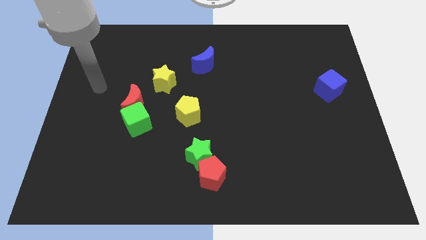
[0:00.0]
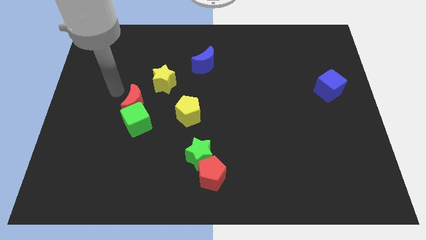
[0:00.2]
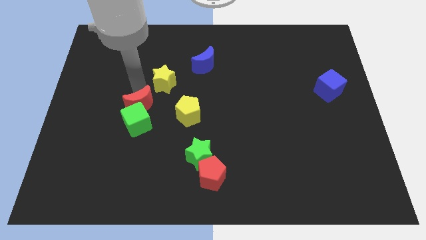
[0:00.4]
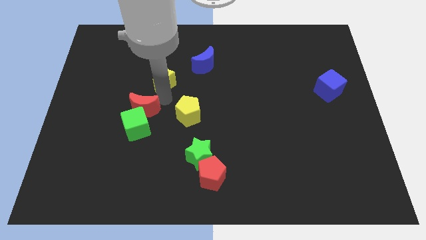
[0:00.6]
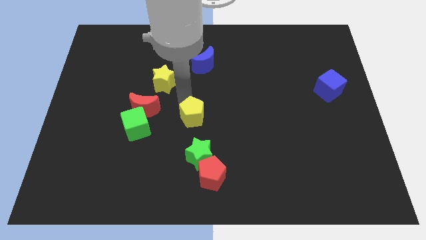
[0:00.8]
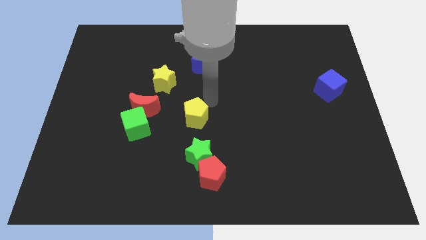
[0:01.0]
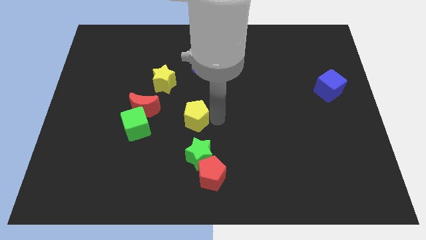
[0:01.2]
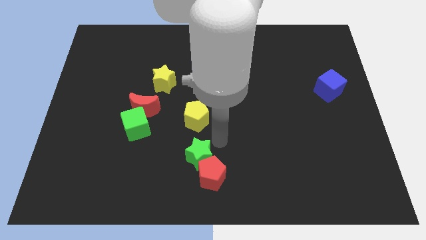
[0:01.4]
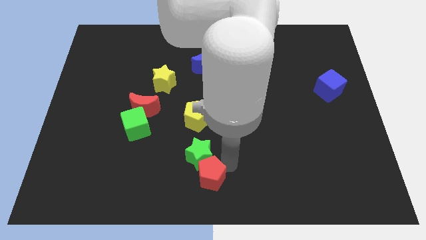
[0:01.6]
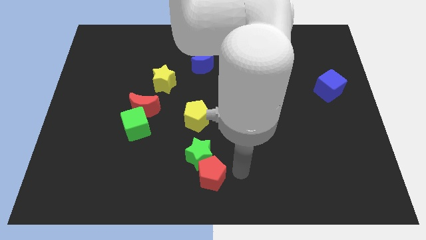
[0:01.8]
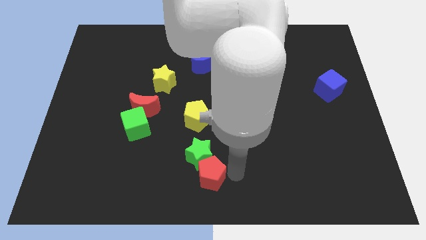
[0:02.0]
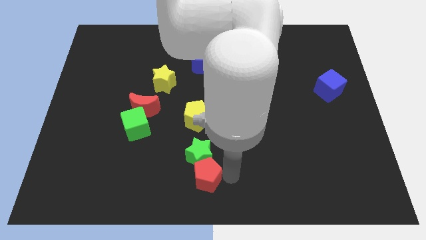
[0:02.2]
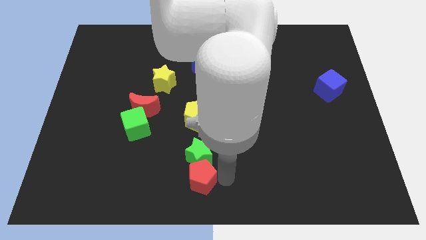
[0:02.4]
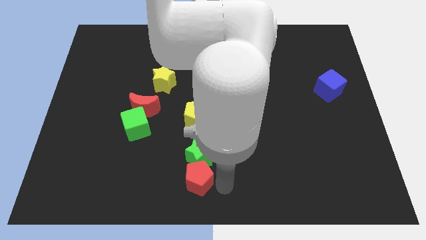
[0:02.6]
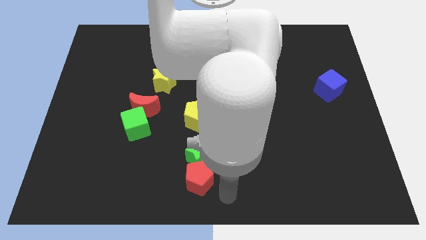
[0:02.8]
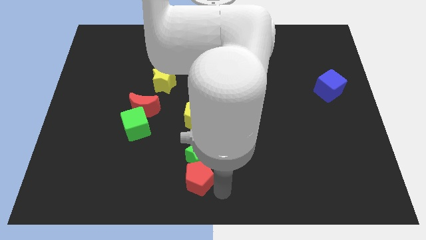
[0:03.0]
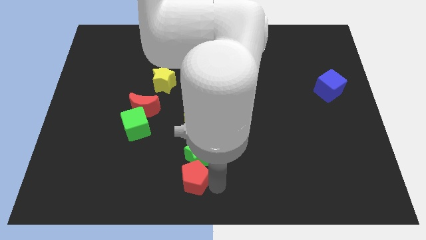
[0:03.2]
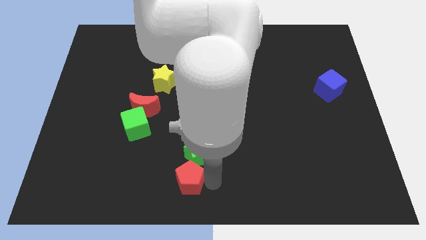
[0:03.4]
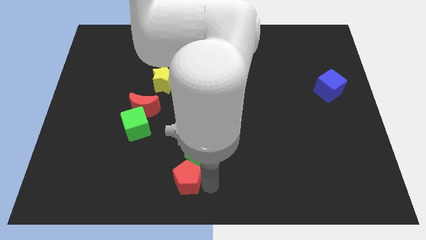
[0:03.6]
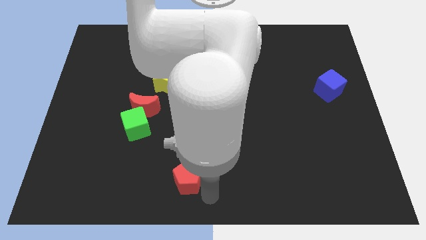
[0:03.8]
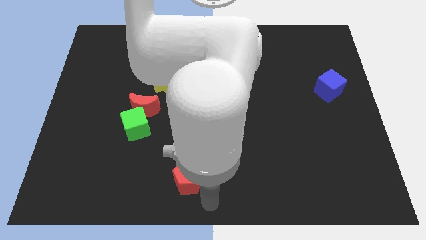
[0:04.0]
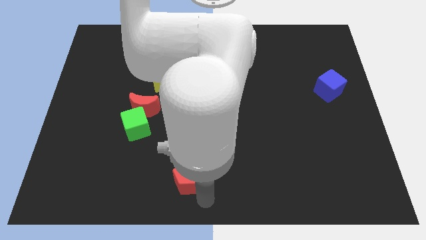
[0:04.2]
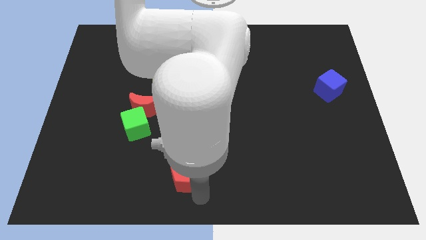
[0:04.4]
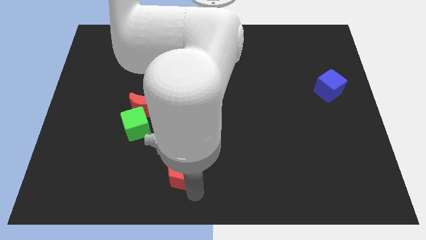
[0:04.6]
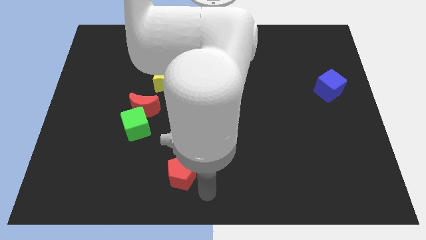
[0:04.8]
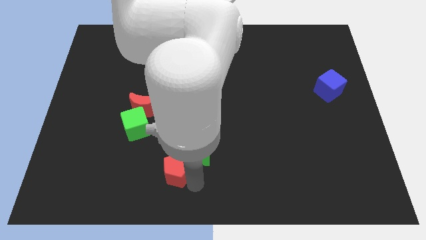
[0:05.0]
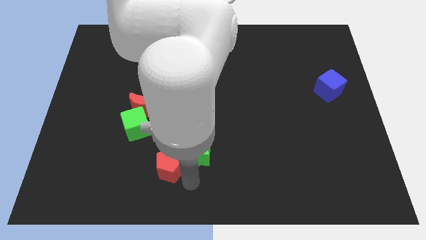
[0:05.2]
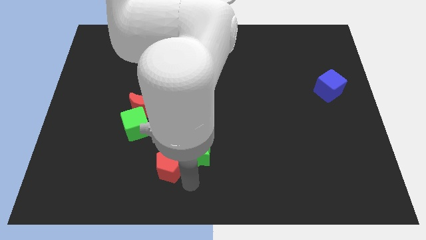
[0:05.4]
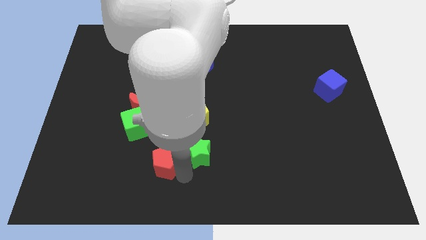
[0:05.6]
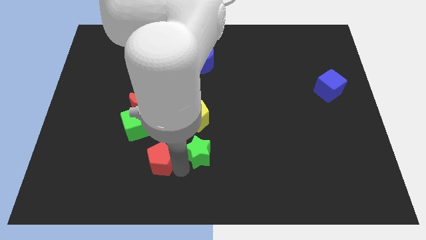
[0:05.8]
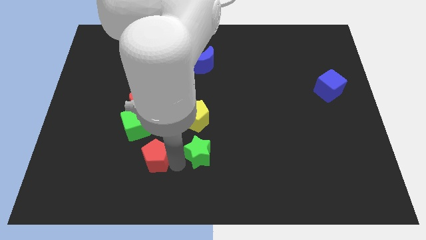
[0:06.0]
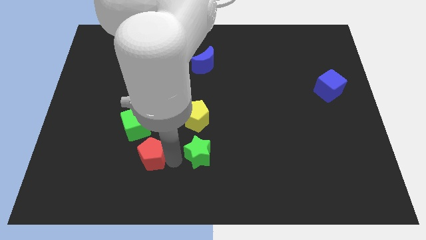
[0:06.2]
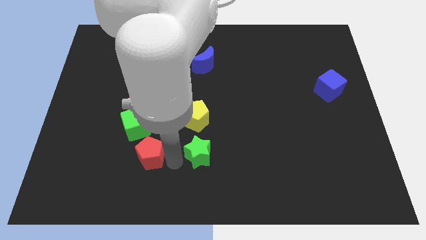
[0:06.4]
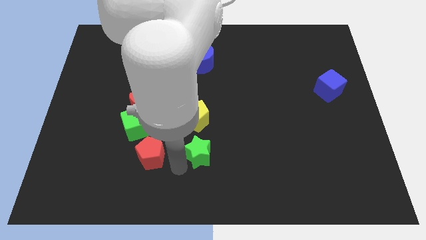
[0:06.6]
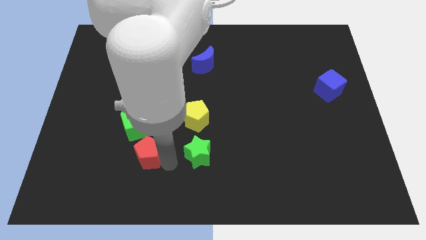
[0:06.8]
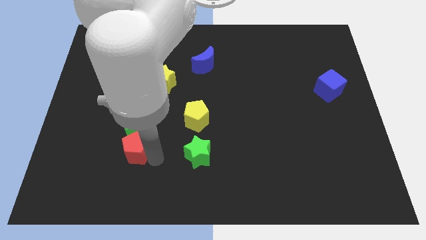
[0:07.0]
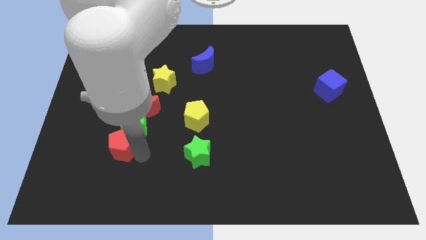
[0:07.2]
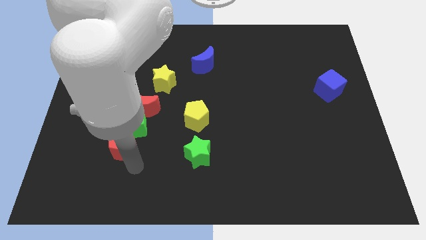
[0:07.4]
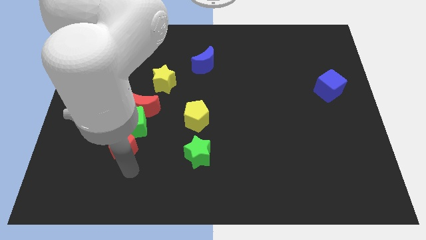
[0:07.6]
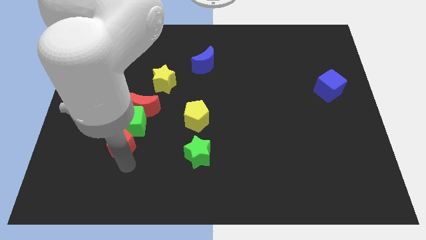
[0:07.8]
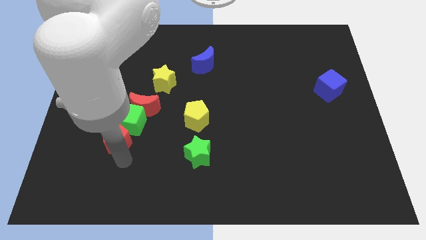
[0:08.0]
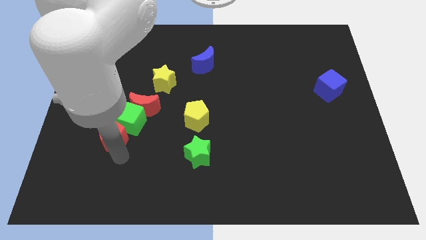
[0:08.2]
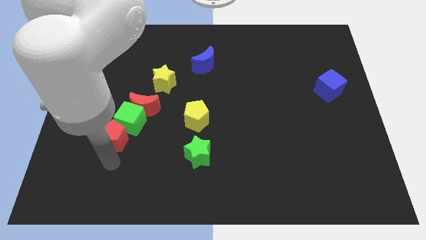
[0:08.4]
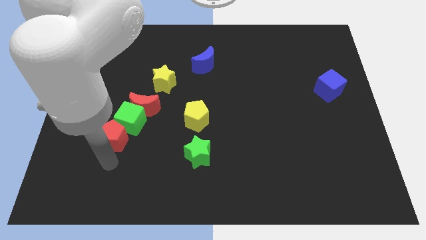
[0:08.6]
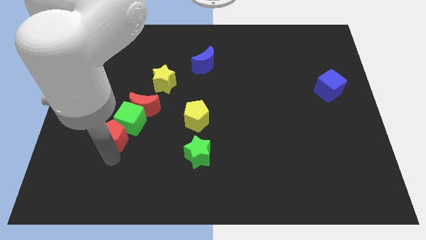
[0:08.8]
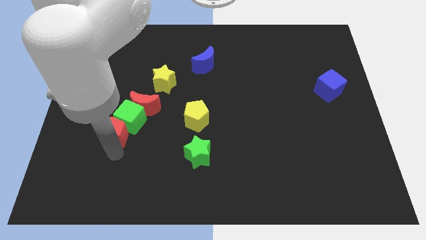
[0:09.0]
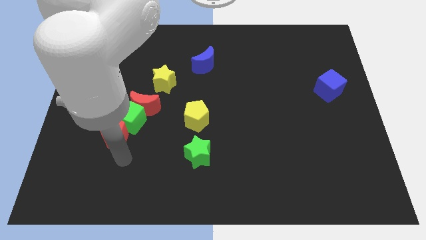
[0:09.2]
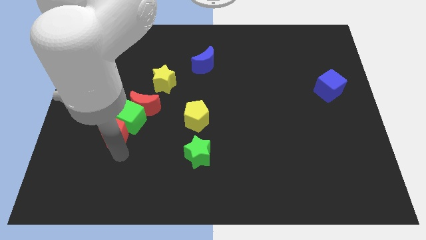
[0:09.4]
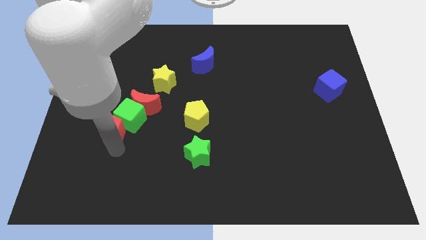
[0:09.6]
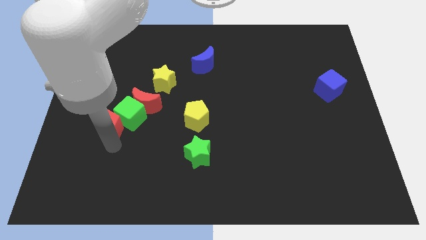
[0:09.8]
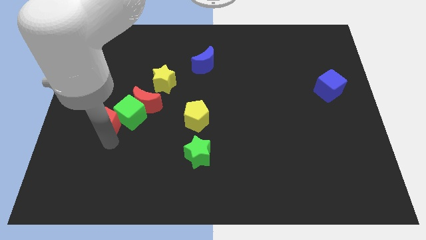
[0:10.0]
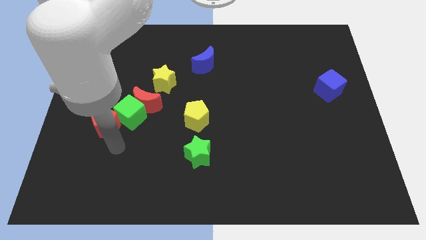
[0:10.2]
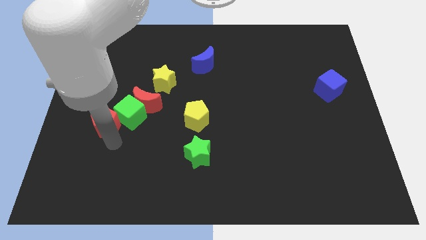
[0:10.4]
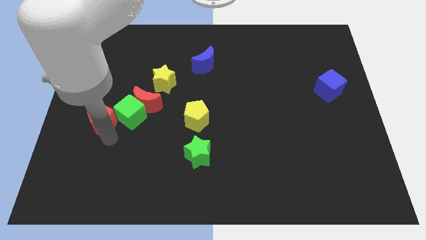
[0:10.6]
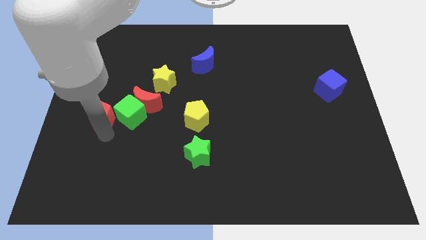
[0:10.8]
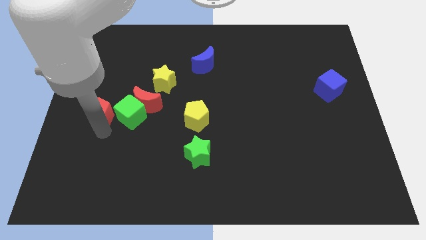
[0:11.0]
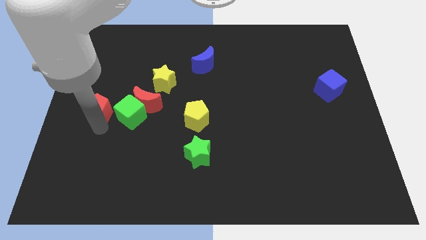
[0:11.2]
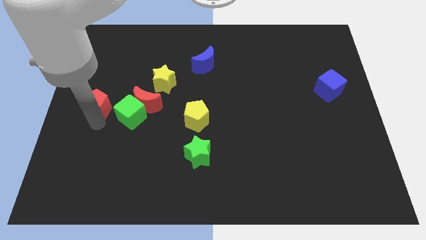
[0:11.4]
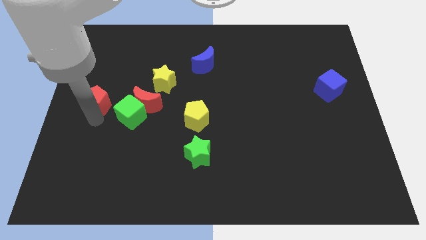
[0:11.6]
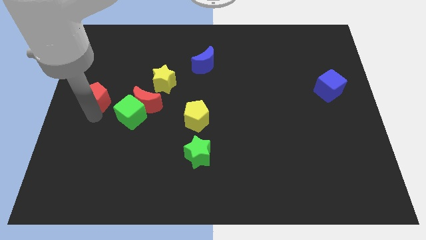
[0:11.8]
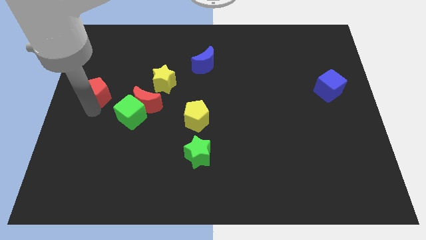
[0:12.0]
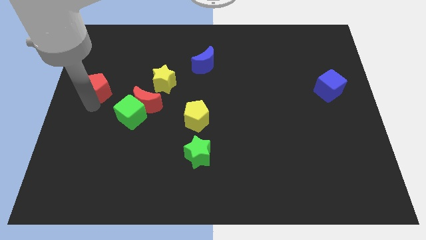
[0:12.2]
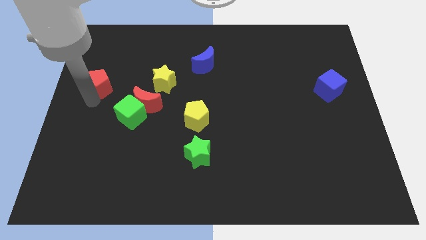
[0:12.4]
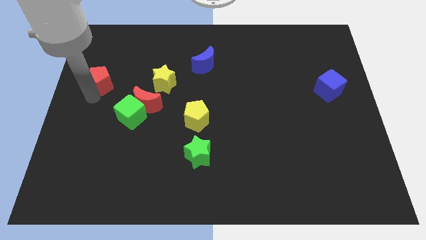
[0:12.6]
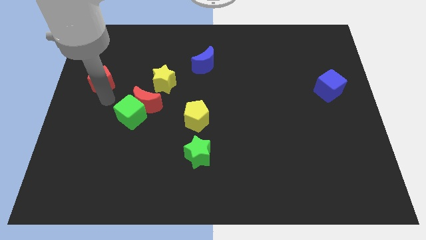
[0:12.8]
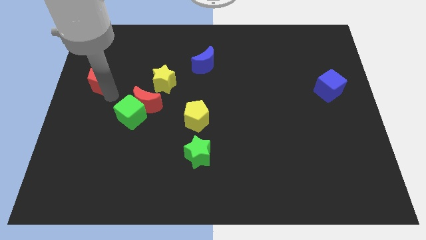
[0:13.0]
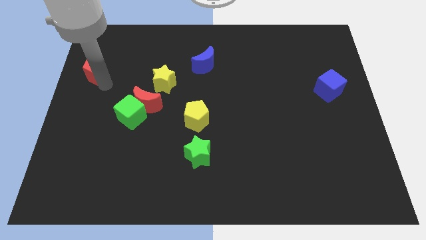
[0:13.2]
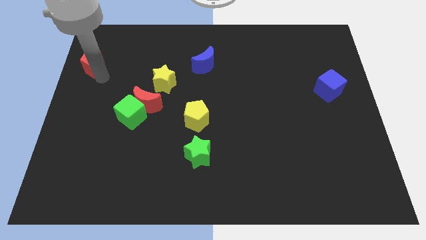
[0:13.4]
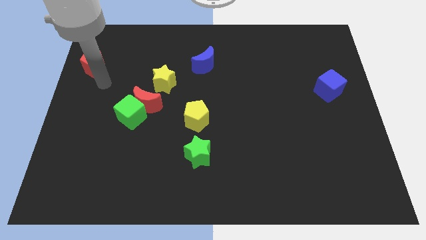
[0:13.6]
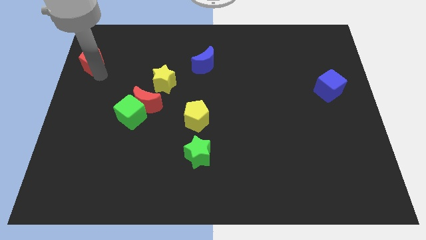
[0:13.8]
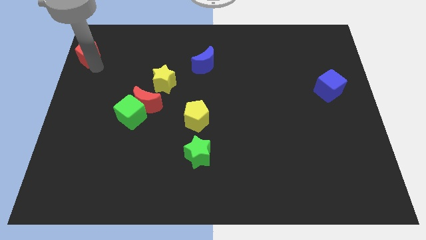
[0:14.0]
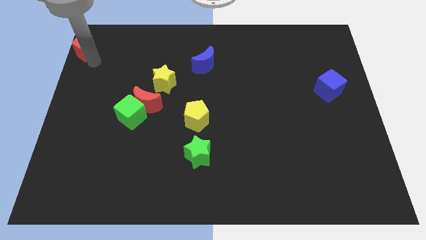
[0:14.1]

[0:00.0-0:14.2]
move the red pentagon to the top left
